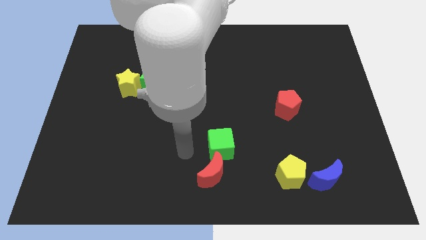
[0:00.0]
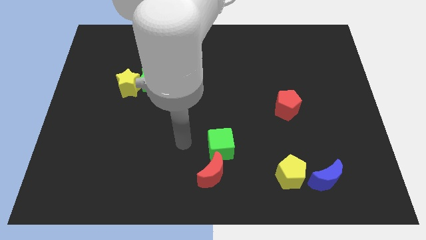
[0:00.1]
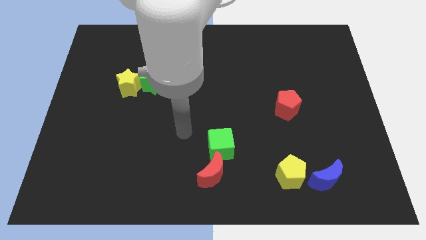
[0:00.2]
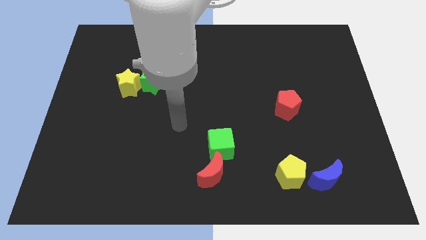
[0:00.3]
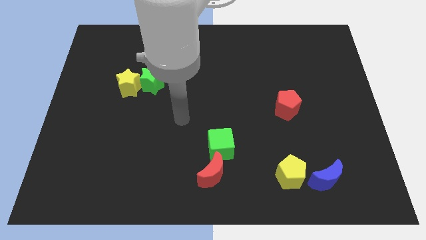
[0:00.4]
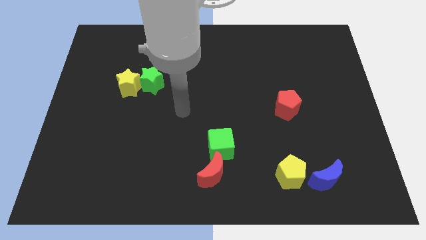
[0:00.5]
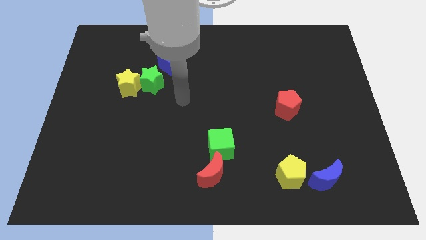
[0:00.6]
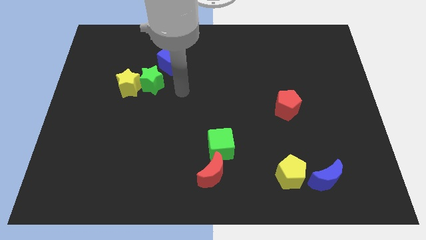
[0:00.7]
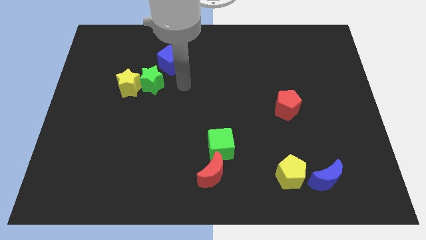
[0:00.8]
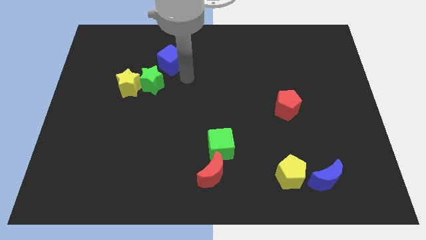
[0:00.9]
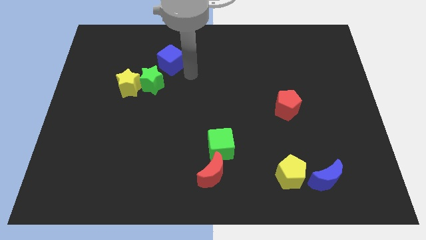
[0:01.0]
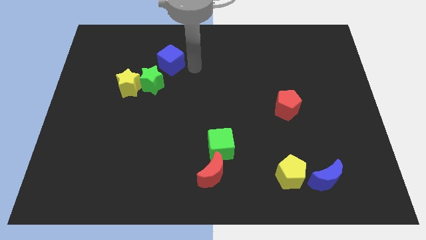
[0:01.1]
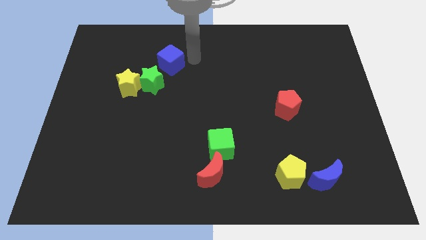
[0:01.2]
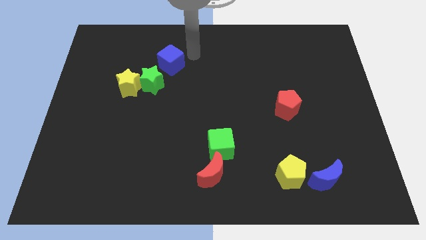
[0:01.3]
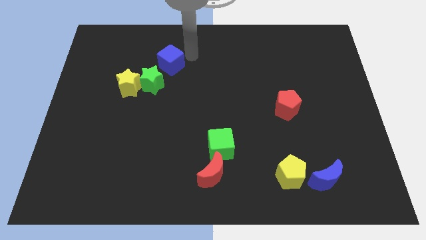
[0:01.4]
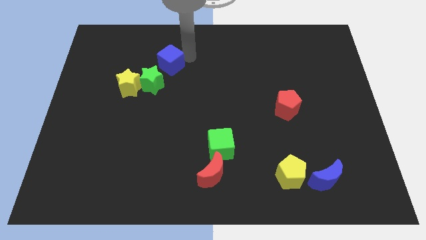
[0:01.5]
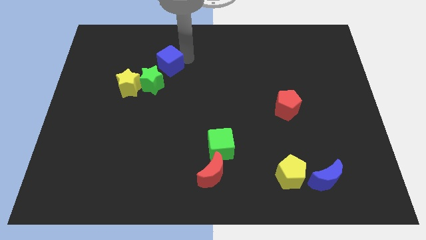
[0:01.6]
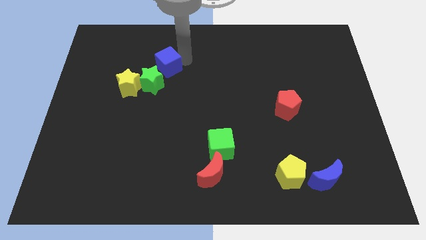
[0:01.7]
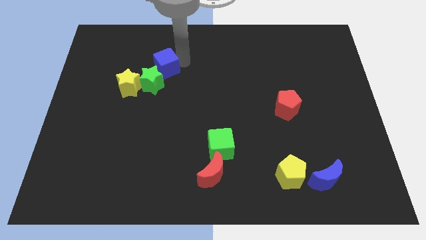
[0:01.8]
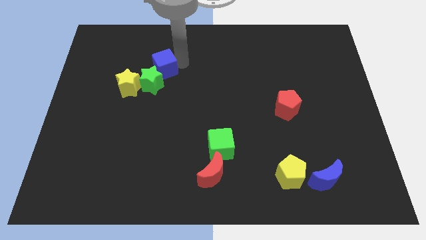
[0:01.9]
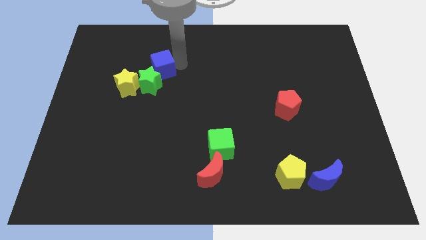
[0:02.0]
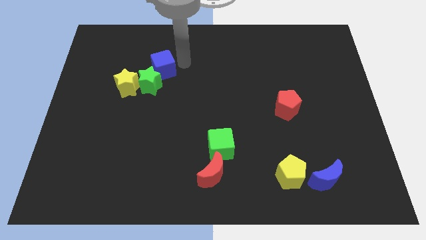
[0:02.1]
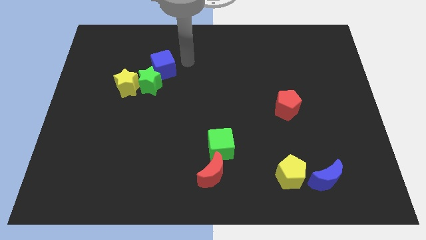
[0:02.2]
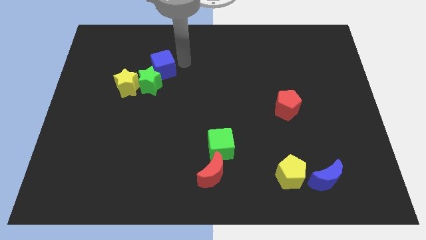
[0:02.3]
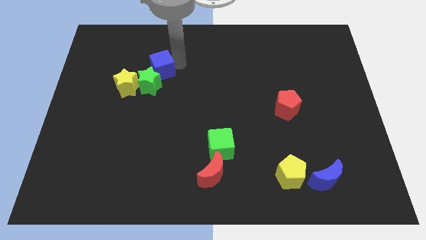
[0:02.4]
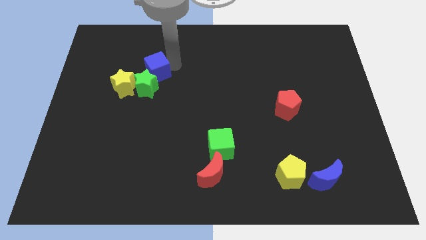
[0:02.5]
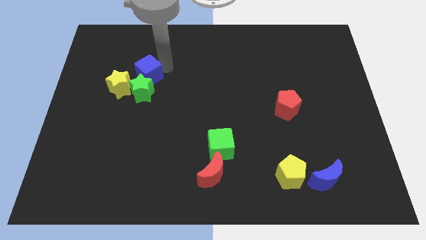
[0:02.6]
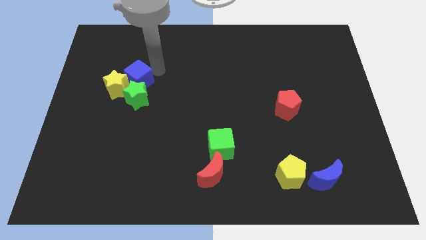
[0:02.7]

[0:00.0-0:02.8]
slide the blue cube next to the yellow star

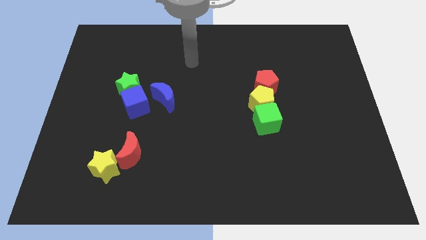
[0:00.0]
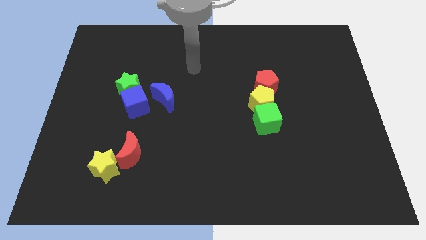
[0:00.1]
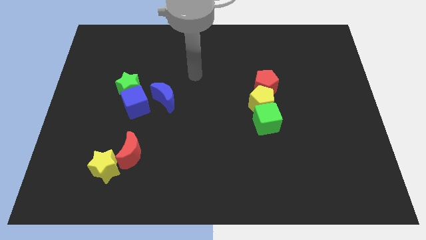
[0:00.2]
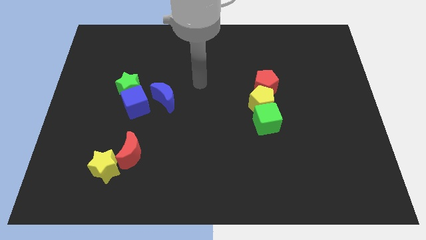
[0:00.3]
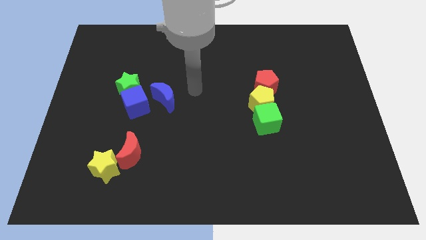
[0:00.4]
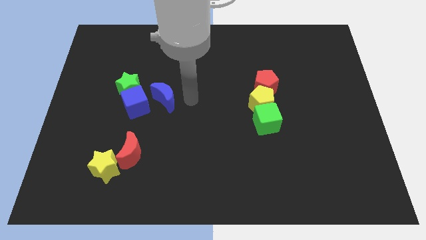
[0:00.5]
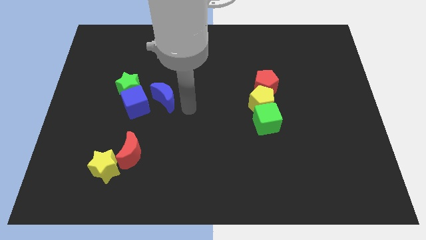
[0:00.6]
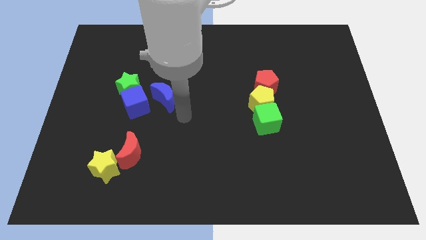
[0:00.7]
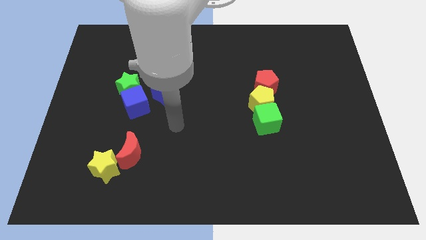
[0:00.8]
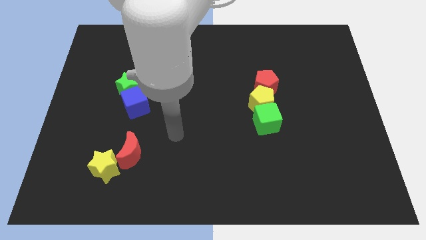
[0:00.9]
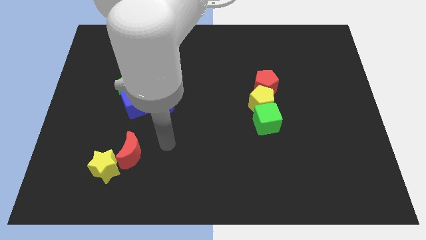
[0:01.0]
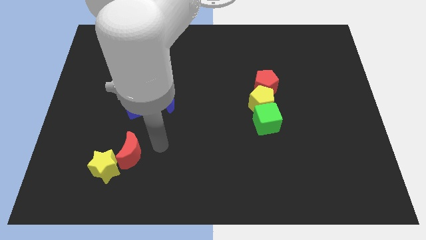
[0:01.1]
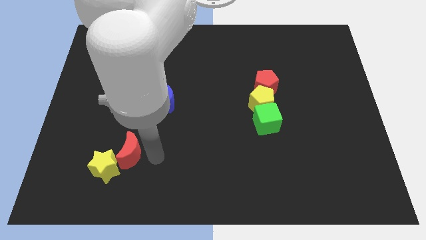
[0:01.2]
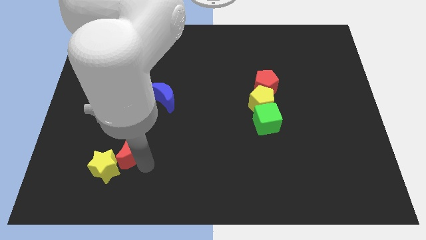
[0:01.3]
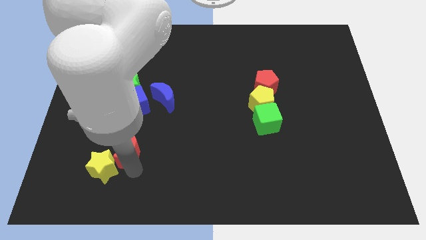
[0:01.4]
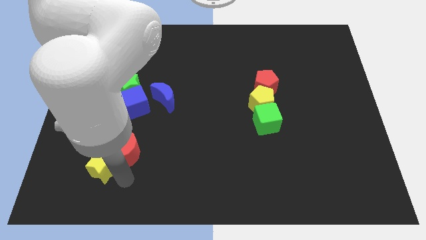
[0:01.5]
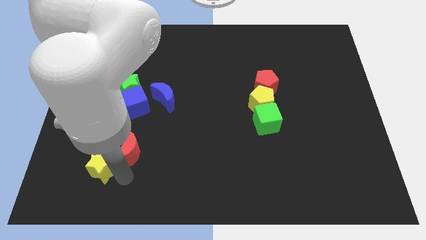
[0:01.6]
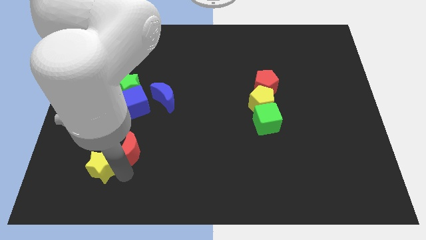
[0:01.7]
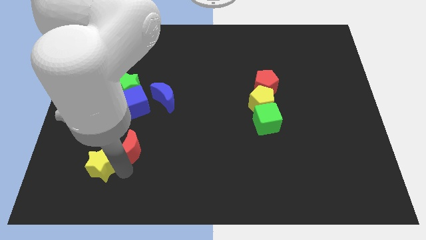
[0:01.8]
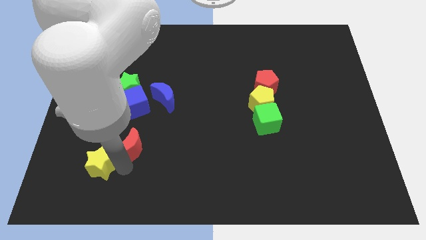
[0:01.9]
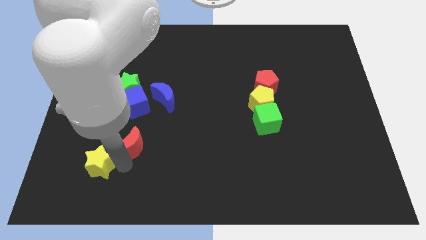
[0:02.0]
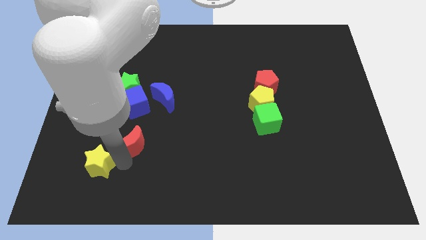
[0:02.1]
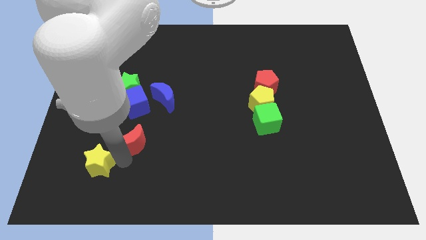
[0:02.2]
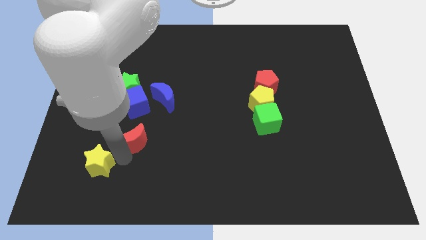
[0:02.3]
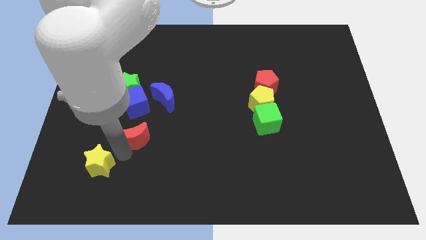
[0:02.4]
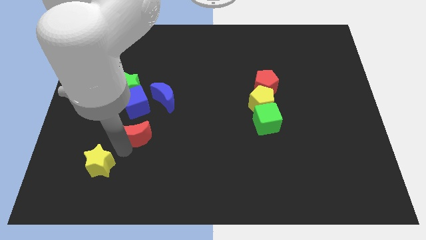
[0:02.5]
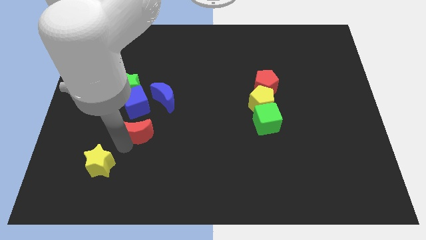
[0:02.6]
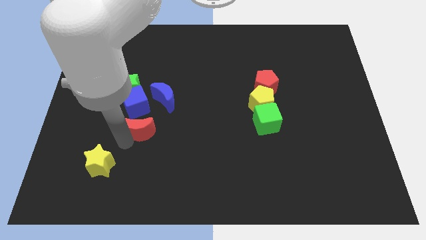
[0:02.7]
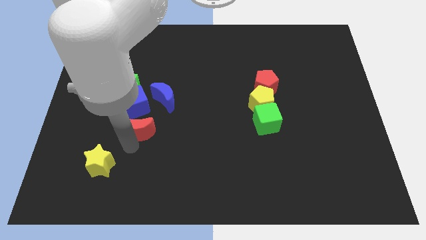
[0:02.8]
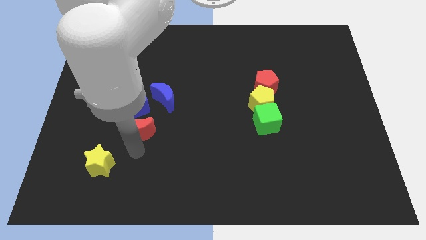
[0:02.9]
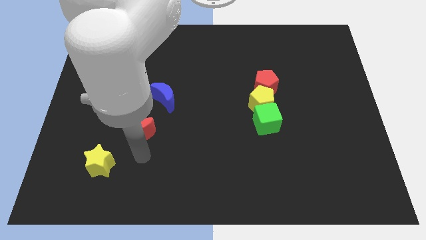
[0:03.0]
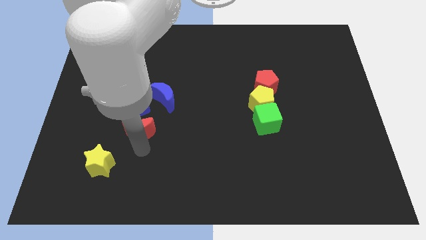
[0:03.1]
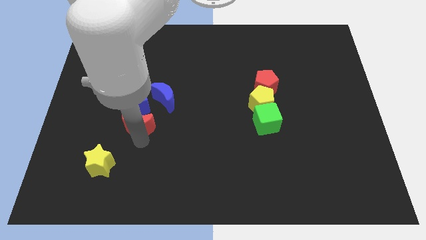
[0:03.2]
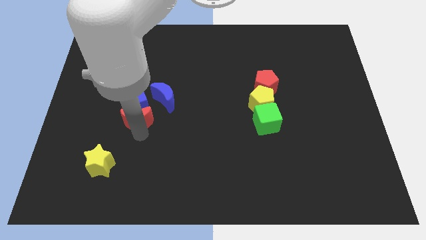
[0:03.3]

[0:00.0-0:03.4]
put the red moon next to the blue cube

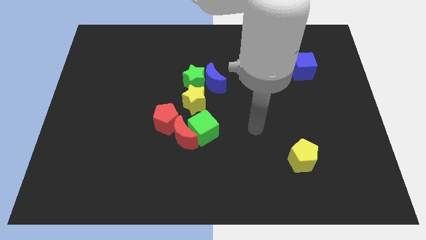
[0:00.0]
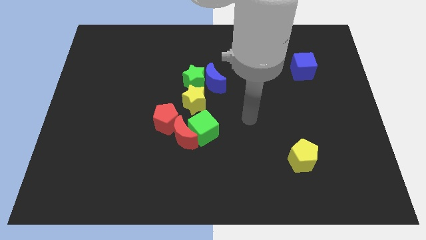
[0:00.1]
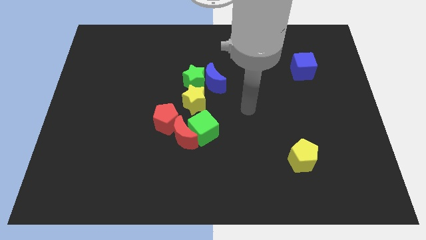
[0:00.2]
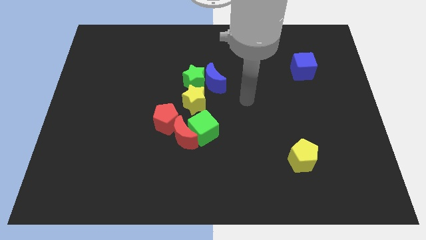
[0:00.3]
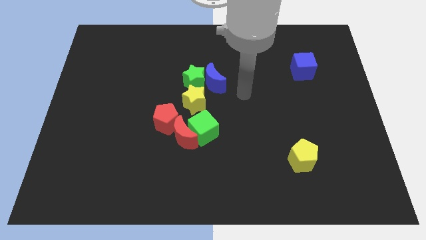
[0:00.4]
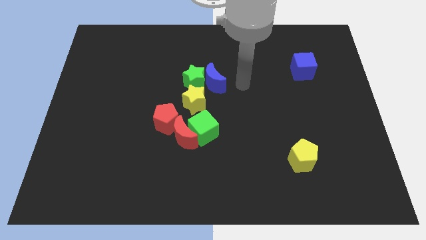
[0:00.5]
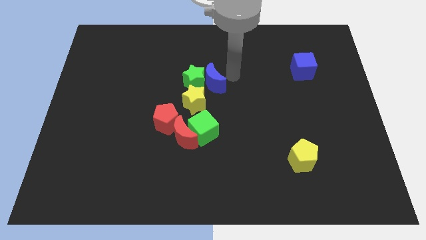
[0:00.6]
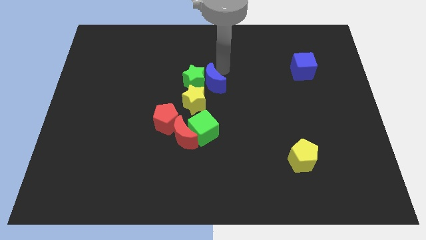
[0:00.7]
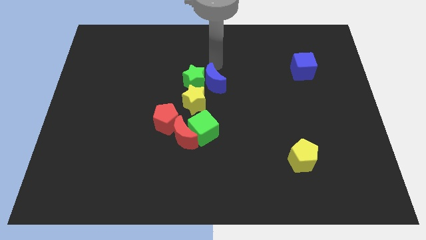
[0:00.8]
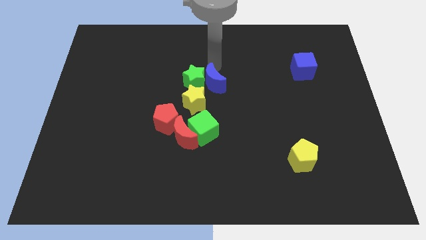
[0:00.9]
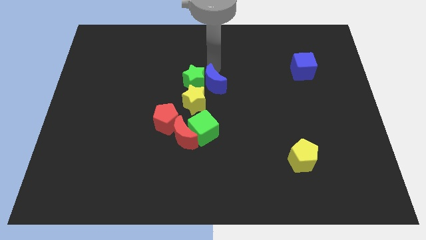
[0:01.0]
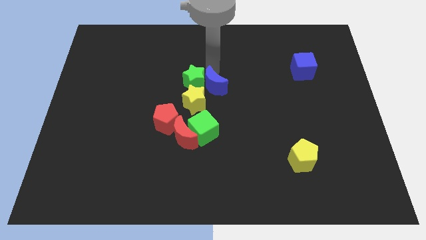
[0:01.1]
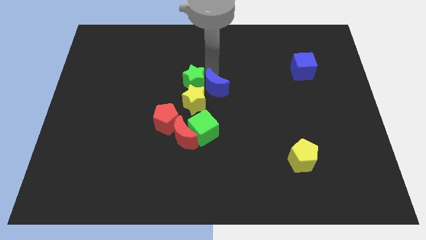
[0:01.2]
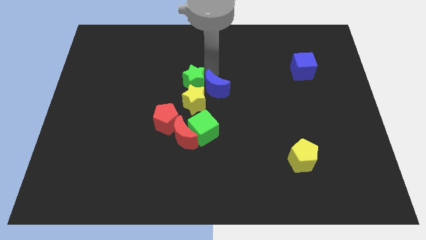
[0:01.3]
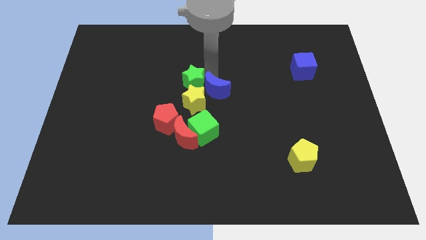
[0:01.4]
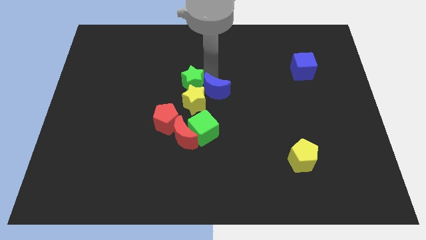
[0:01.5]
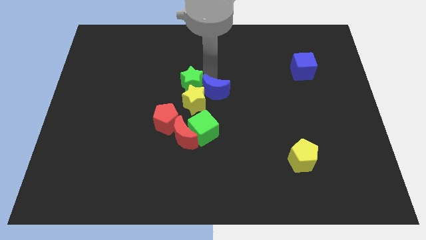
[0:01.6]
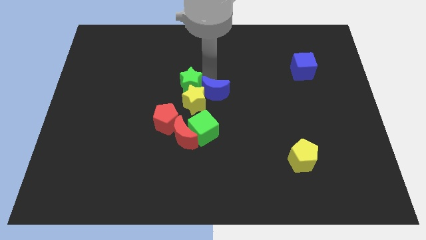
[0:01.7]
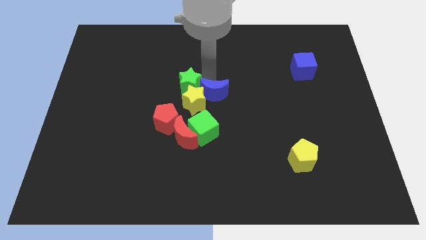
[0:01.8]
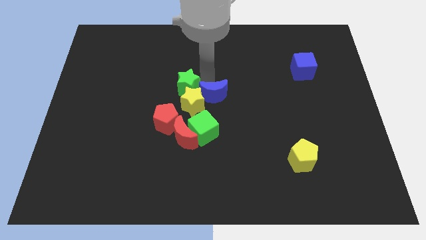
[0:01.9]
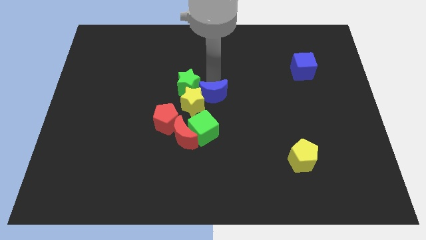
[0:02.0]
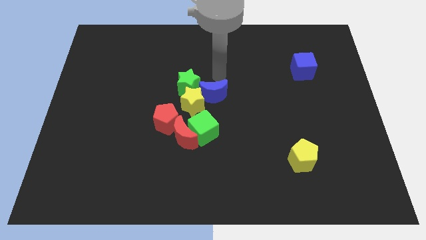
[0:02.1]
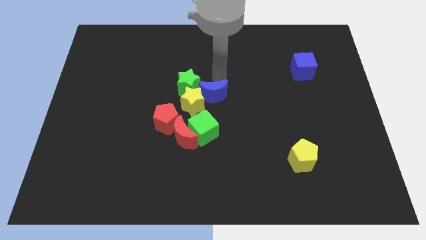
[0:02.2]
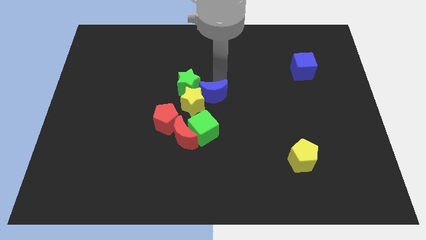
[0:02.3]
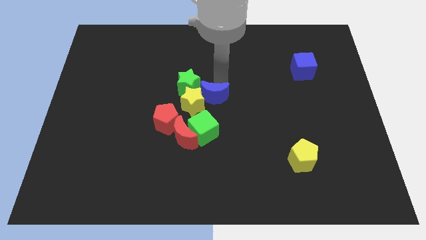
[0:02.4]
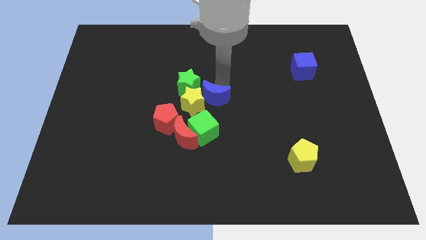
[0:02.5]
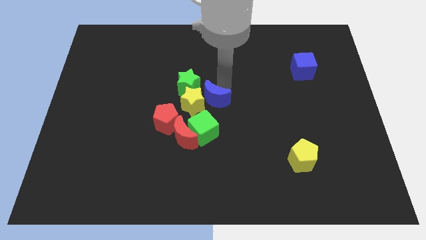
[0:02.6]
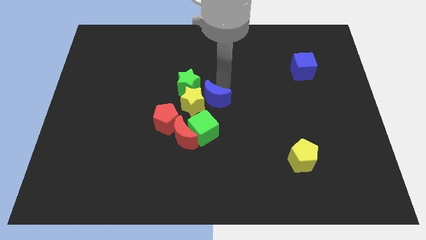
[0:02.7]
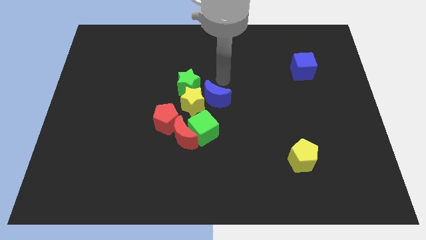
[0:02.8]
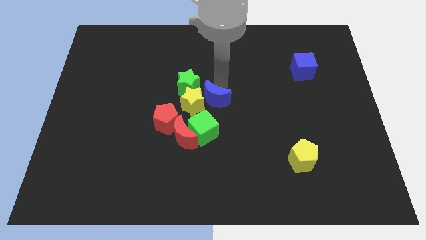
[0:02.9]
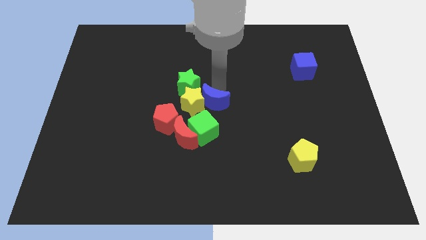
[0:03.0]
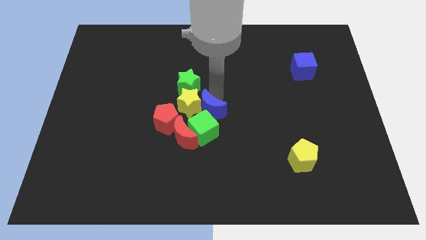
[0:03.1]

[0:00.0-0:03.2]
put the blue moon next to the green cube
